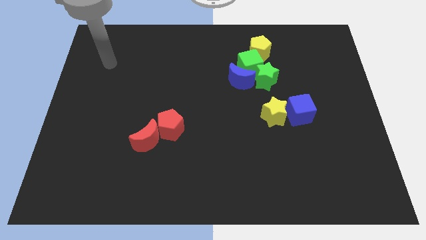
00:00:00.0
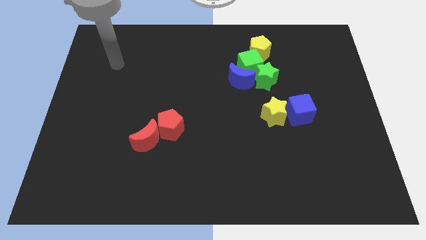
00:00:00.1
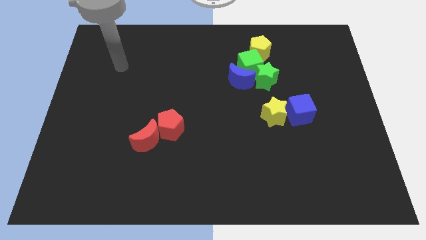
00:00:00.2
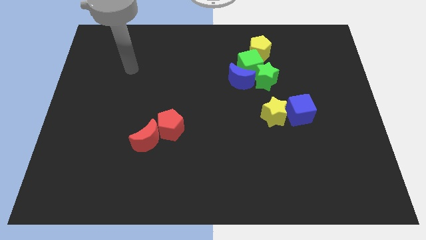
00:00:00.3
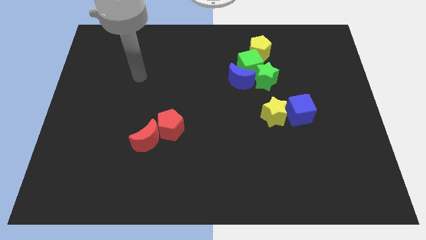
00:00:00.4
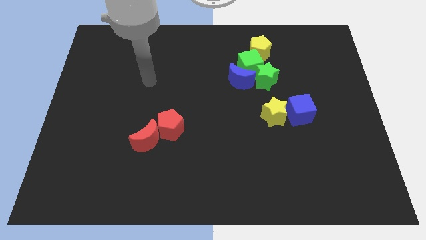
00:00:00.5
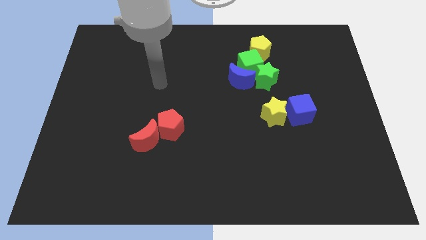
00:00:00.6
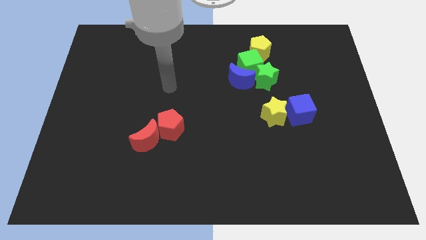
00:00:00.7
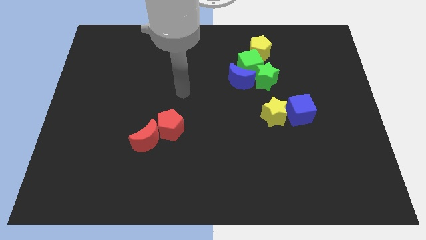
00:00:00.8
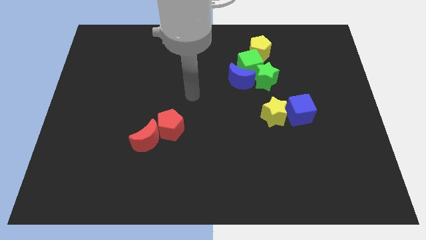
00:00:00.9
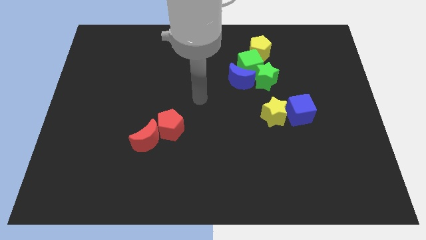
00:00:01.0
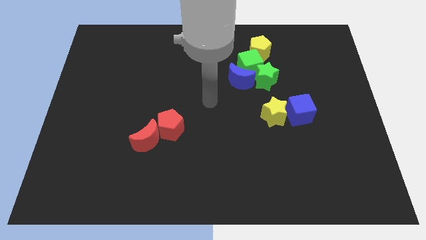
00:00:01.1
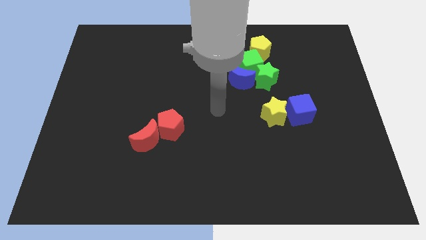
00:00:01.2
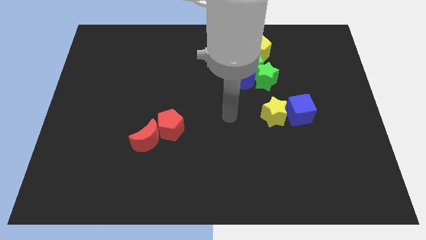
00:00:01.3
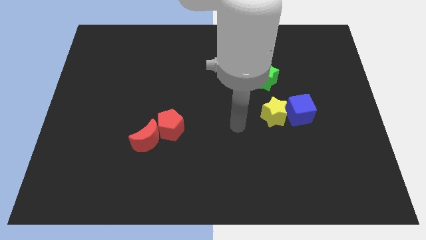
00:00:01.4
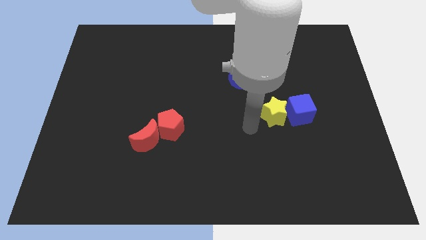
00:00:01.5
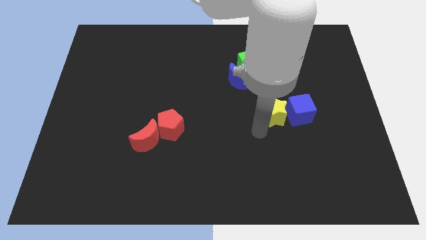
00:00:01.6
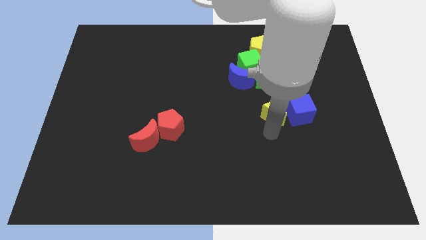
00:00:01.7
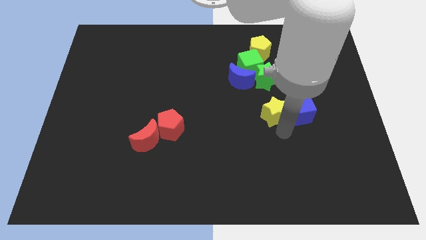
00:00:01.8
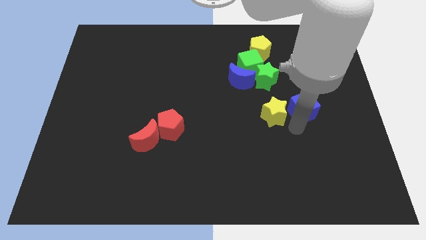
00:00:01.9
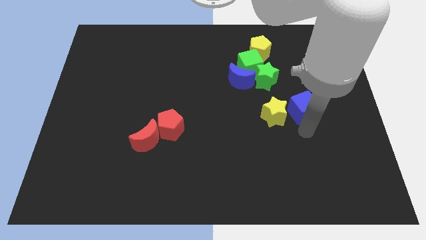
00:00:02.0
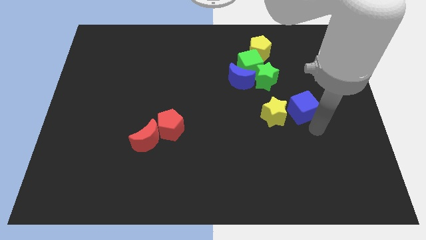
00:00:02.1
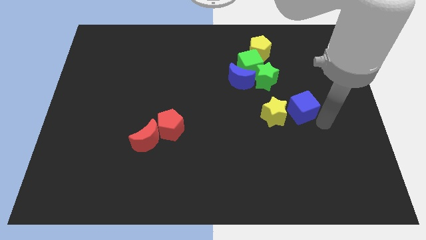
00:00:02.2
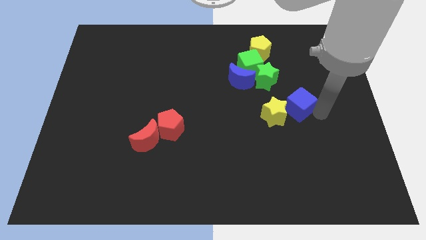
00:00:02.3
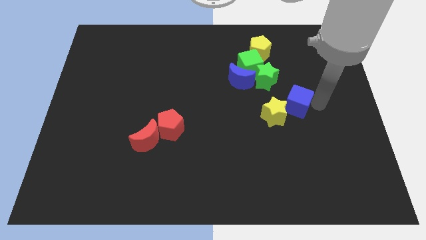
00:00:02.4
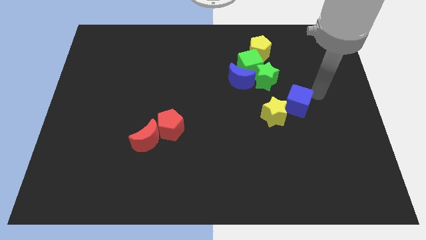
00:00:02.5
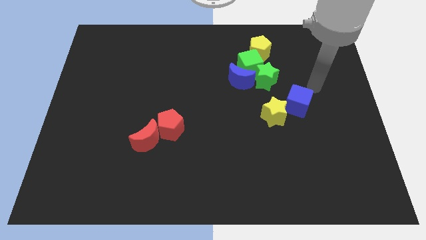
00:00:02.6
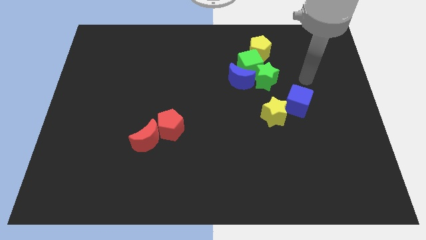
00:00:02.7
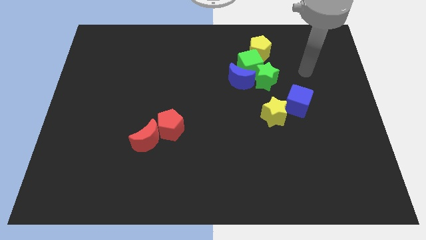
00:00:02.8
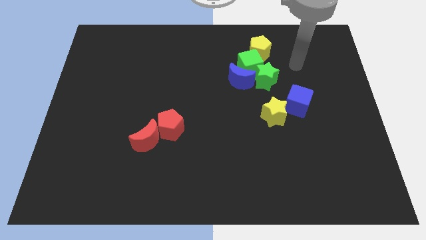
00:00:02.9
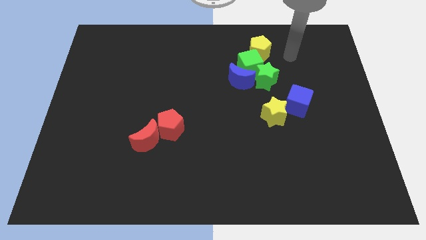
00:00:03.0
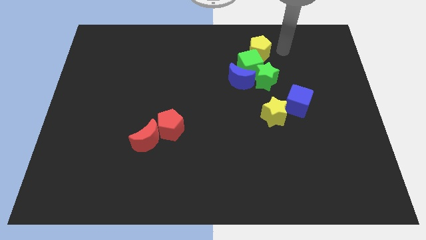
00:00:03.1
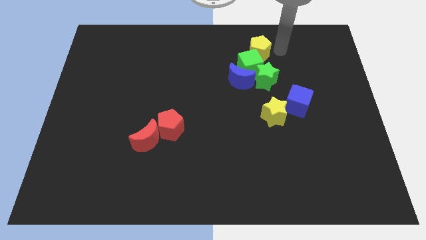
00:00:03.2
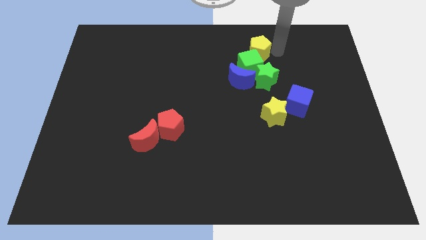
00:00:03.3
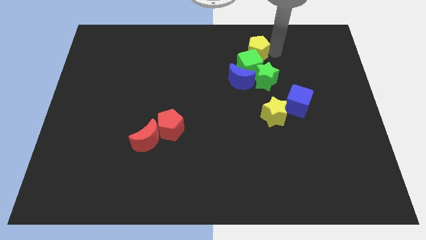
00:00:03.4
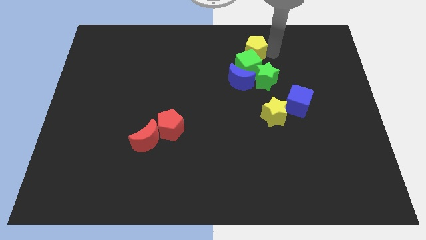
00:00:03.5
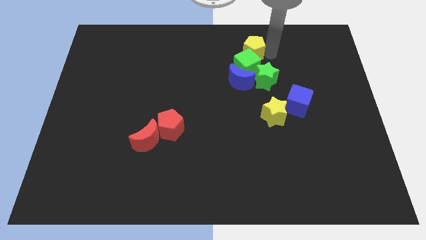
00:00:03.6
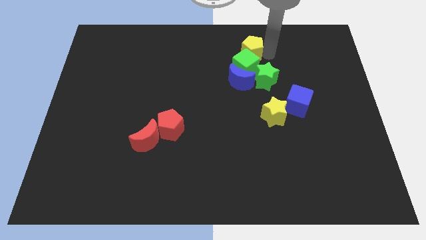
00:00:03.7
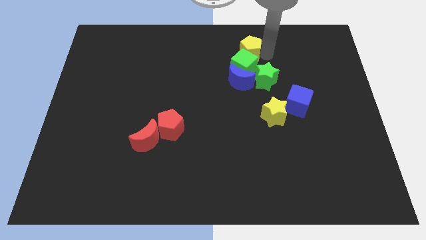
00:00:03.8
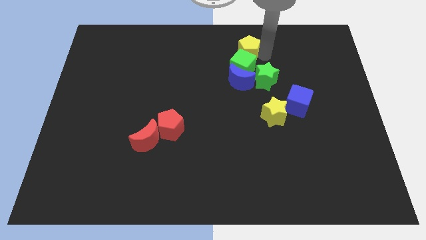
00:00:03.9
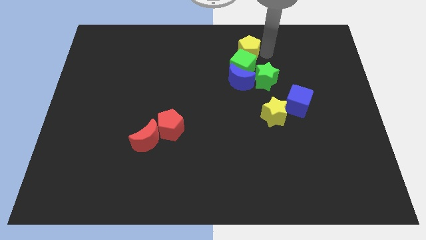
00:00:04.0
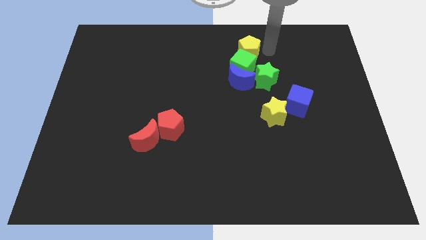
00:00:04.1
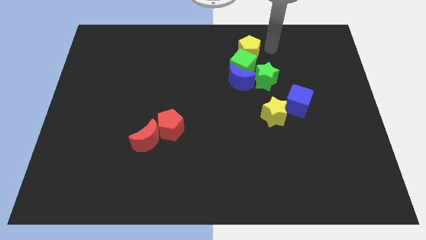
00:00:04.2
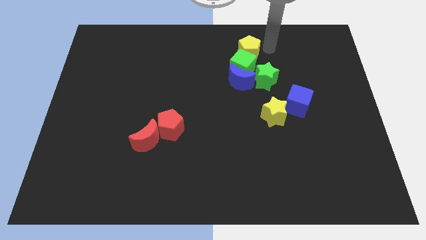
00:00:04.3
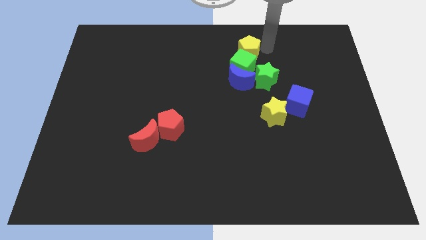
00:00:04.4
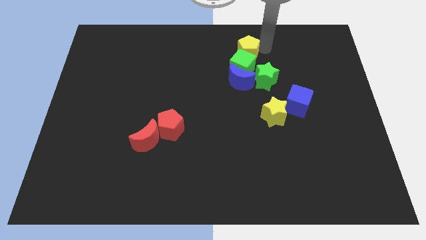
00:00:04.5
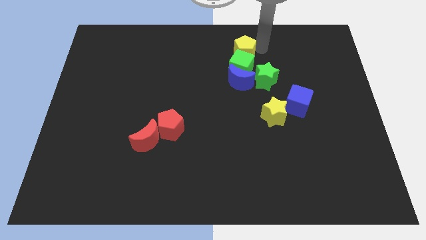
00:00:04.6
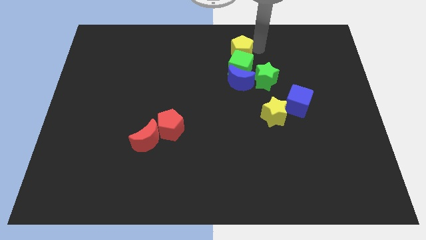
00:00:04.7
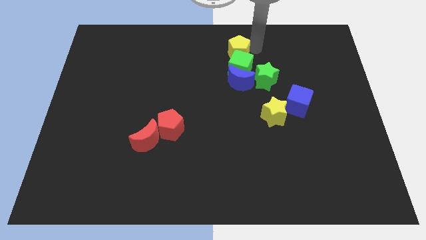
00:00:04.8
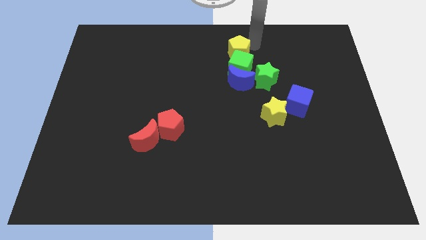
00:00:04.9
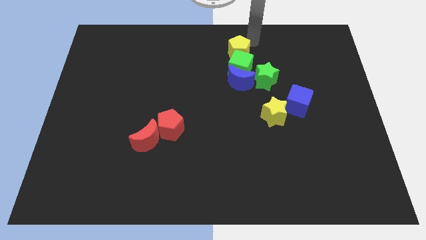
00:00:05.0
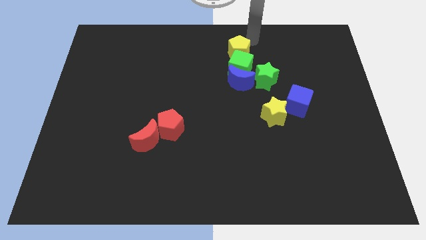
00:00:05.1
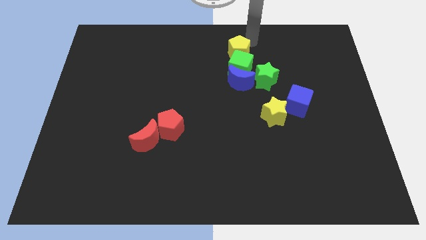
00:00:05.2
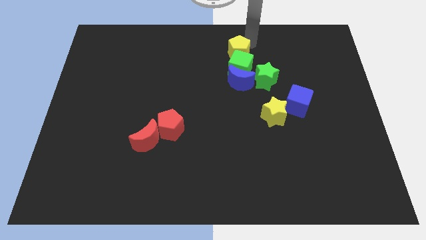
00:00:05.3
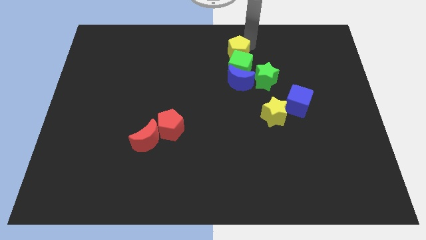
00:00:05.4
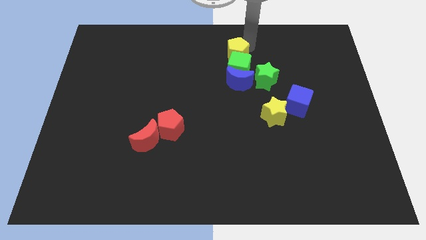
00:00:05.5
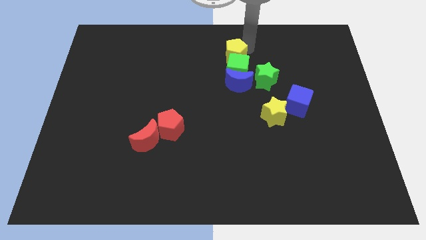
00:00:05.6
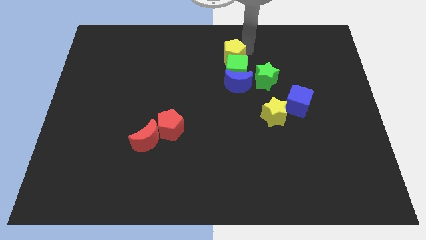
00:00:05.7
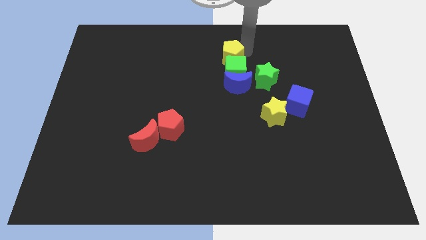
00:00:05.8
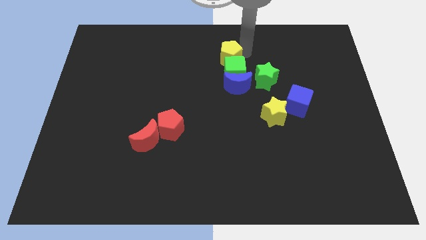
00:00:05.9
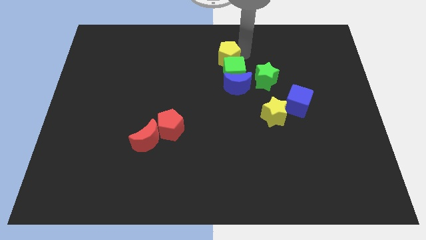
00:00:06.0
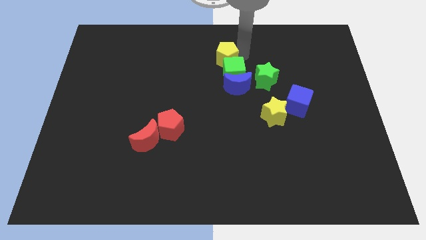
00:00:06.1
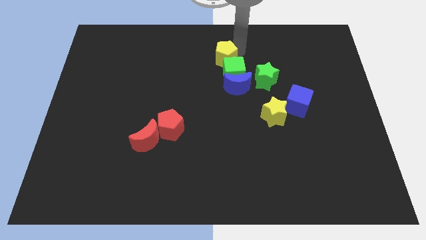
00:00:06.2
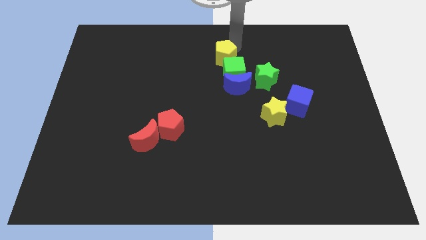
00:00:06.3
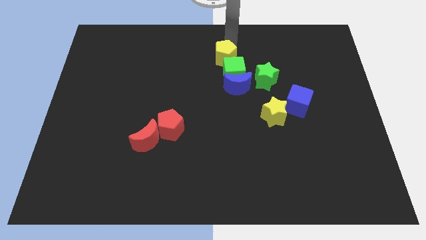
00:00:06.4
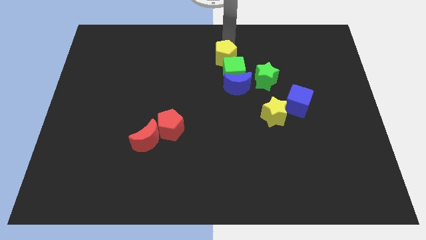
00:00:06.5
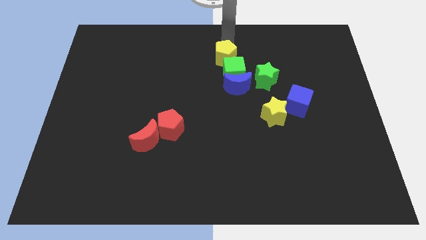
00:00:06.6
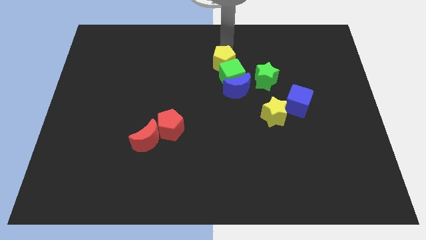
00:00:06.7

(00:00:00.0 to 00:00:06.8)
slide the yellow pentagon to the center of the board

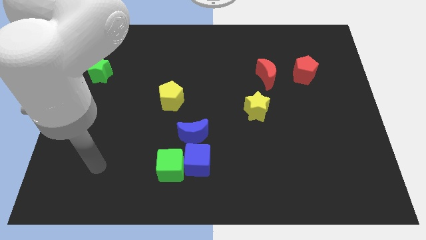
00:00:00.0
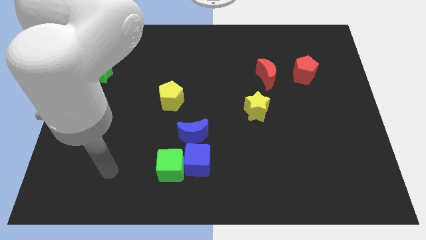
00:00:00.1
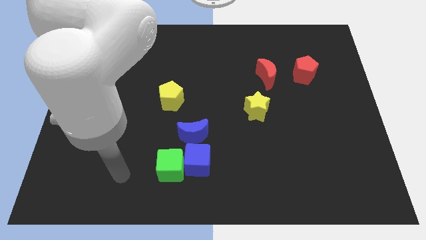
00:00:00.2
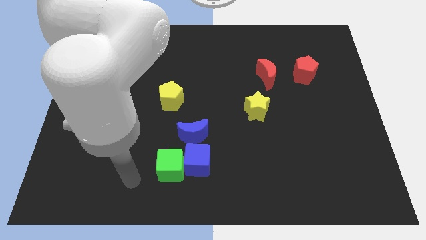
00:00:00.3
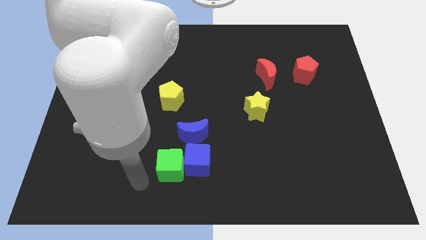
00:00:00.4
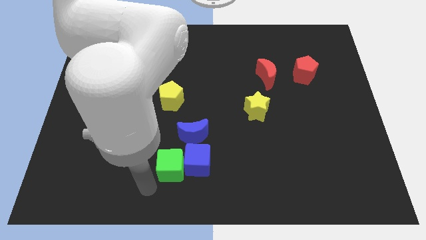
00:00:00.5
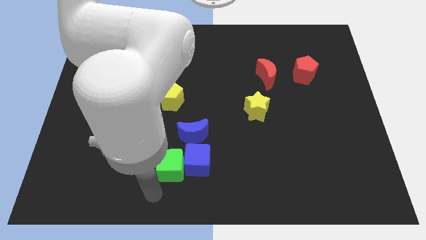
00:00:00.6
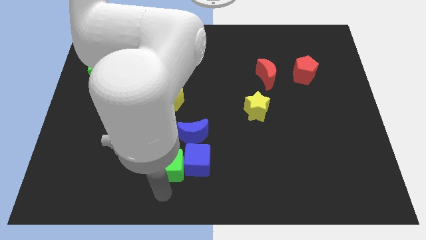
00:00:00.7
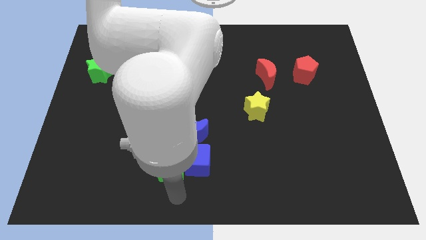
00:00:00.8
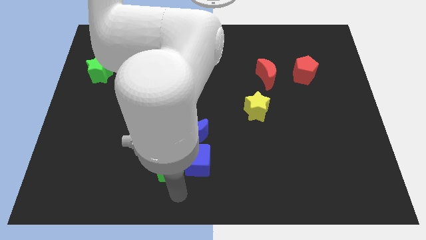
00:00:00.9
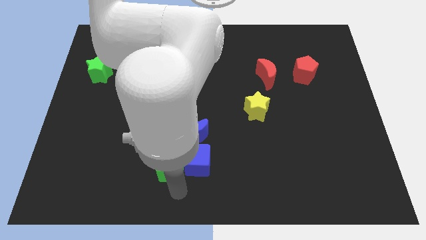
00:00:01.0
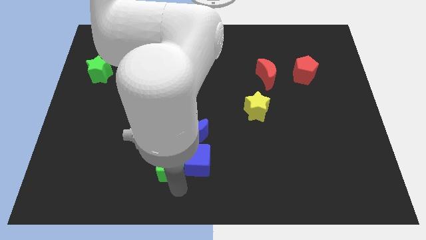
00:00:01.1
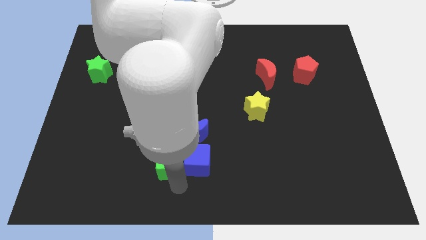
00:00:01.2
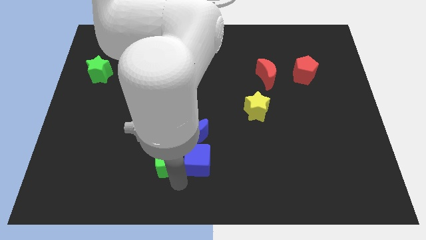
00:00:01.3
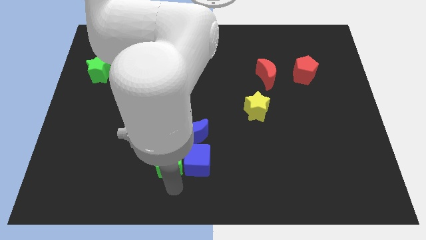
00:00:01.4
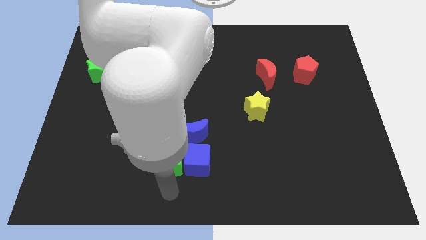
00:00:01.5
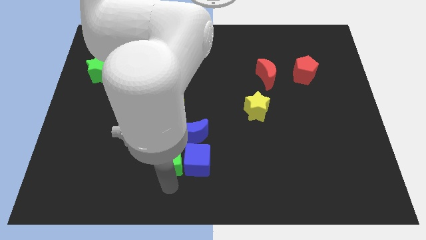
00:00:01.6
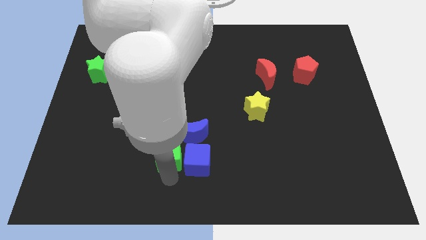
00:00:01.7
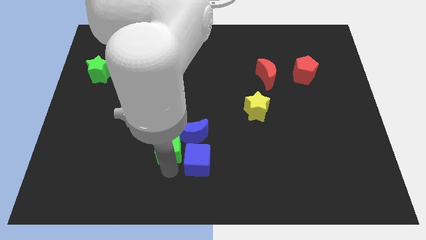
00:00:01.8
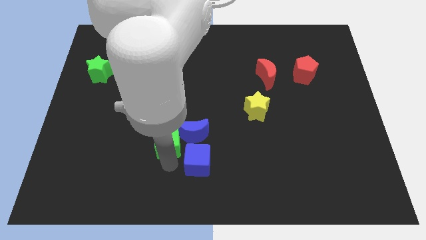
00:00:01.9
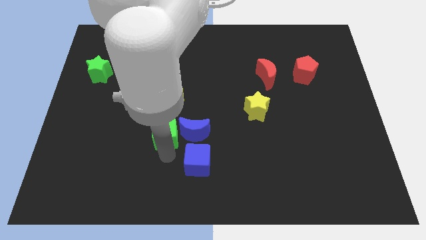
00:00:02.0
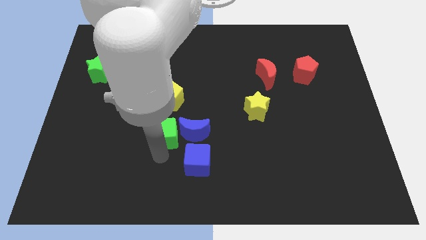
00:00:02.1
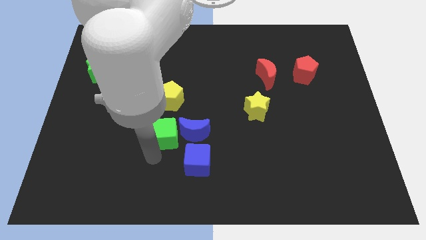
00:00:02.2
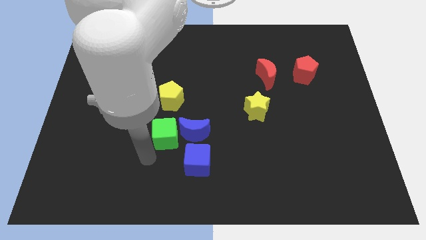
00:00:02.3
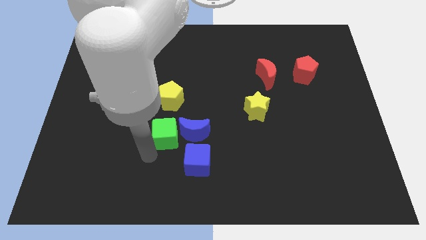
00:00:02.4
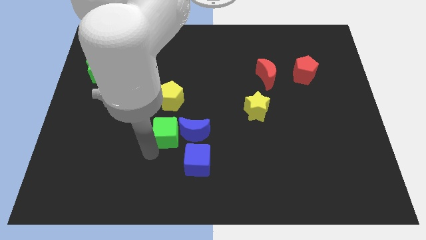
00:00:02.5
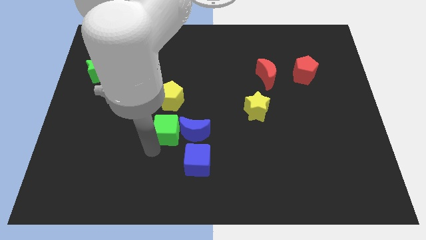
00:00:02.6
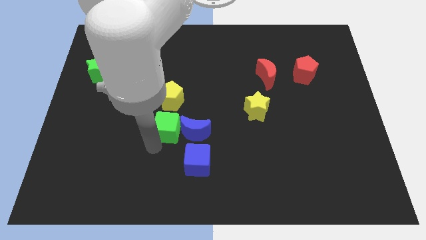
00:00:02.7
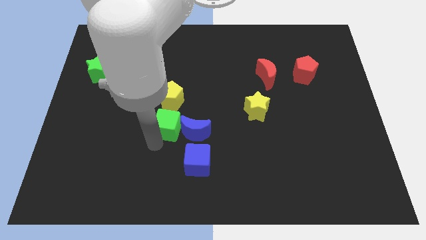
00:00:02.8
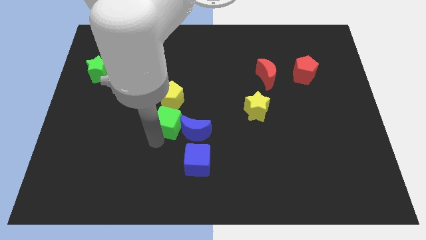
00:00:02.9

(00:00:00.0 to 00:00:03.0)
push the green cube to the center of the board
